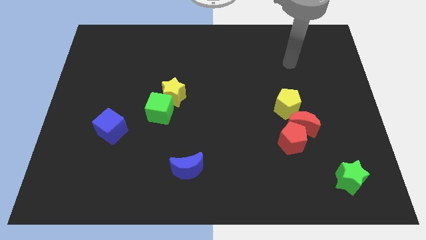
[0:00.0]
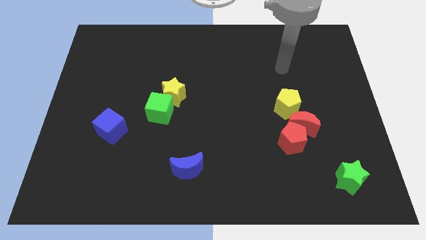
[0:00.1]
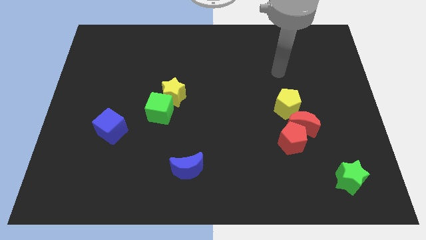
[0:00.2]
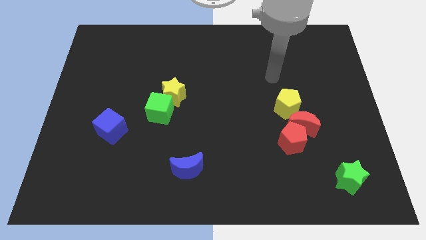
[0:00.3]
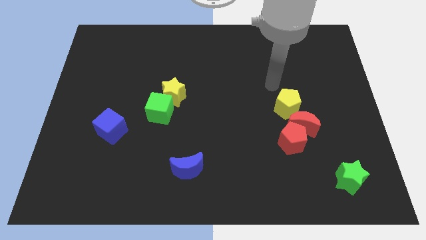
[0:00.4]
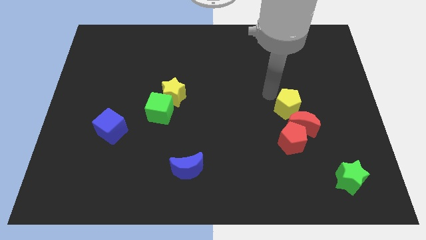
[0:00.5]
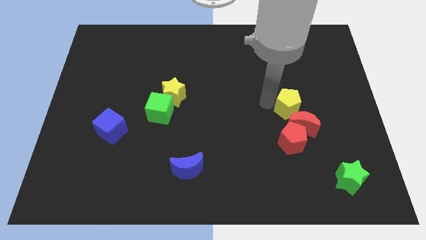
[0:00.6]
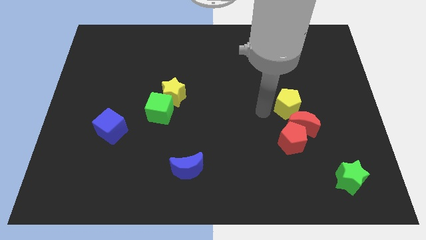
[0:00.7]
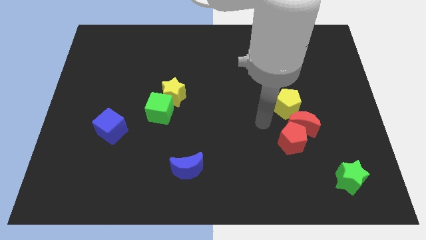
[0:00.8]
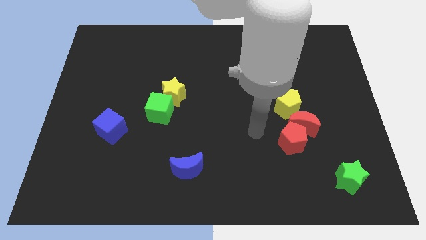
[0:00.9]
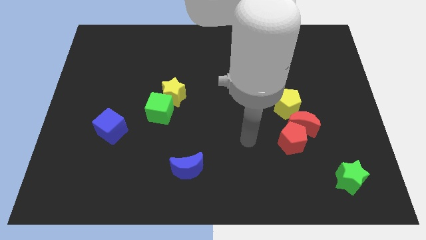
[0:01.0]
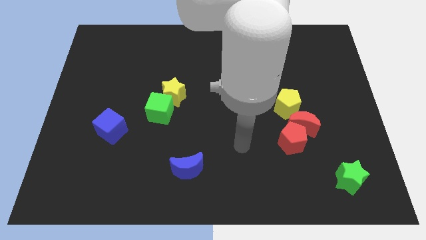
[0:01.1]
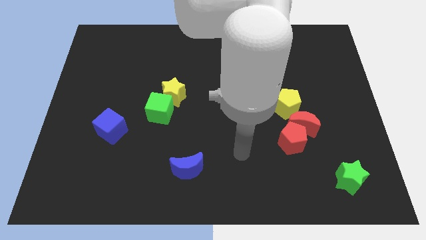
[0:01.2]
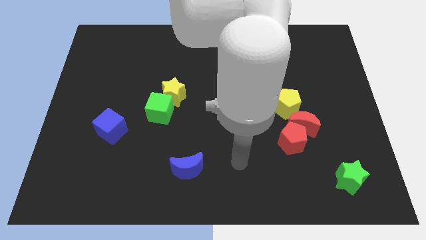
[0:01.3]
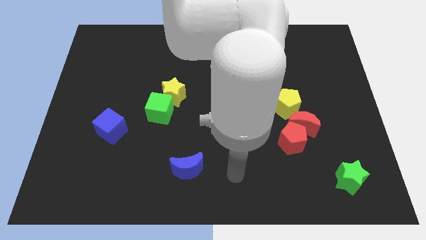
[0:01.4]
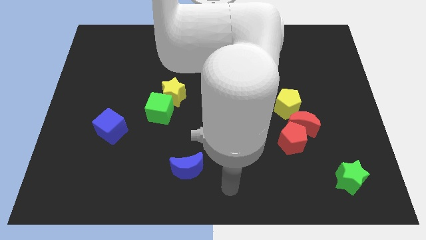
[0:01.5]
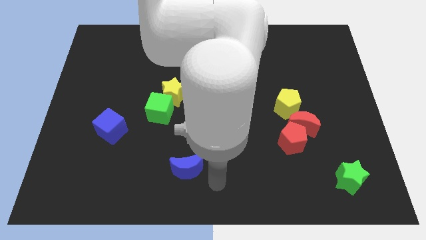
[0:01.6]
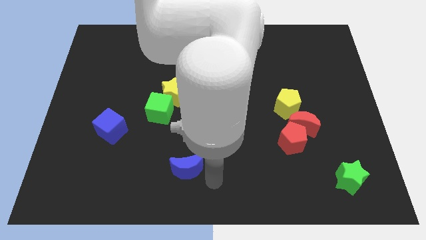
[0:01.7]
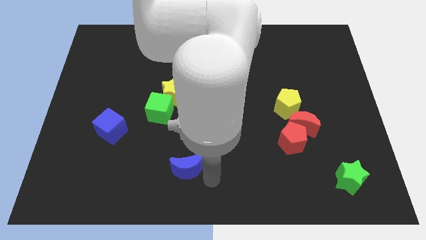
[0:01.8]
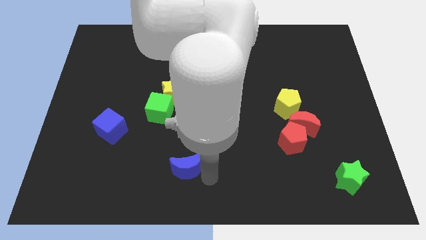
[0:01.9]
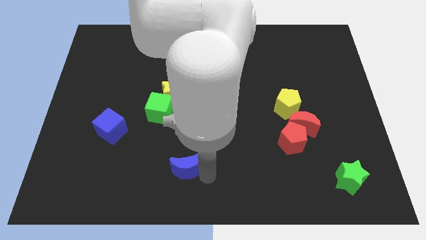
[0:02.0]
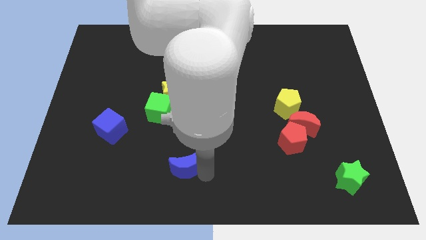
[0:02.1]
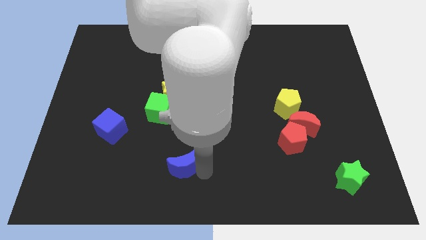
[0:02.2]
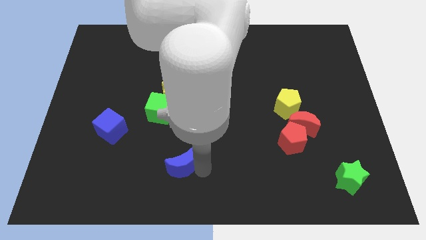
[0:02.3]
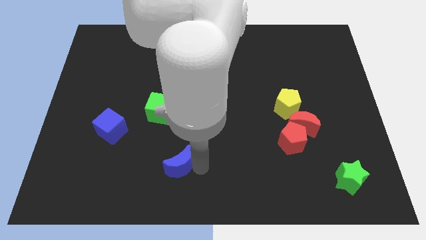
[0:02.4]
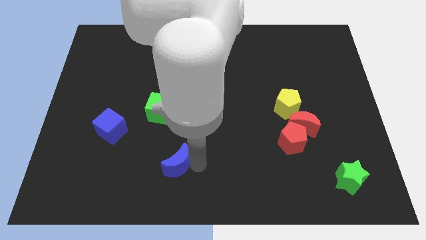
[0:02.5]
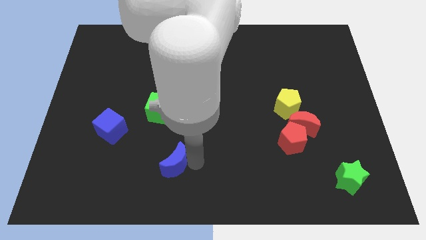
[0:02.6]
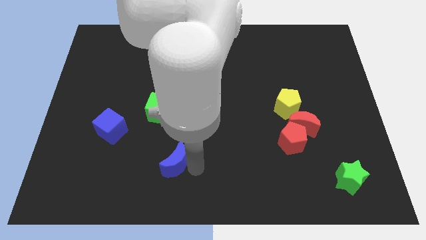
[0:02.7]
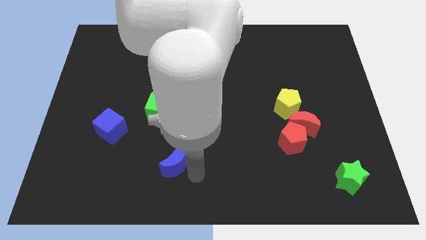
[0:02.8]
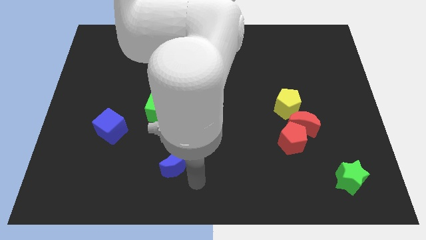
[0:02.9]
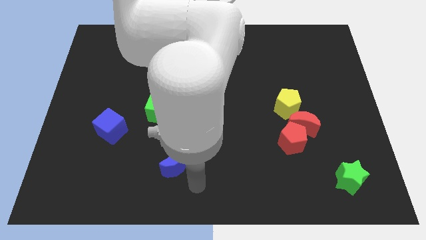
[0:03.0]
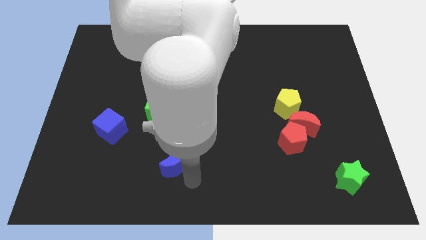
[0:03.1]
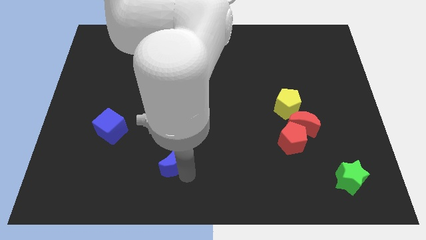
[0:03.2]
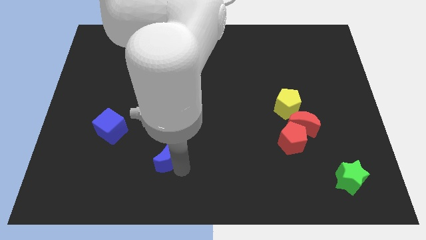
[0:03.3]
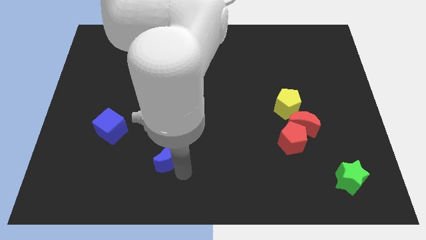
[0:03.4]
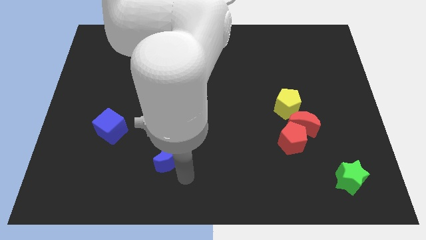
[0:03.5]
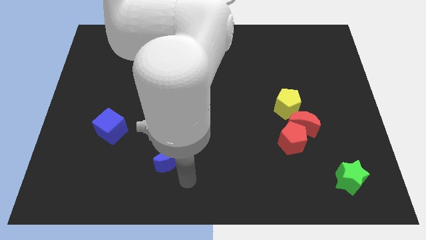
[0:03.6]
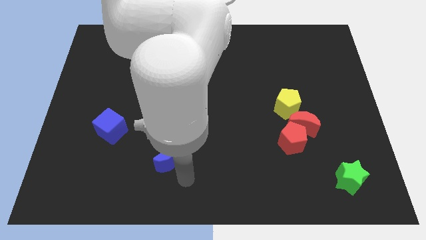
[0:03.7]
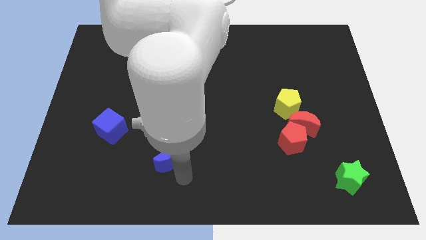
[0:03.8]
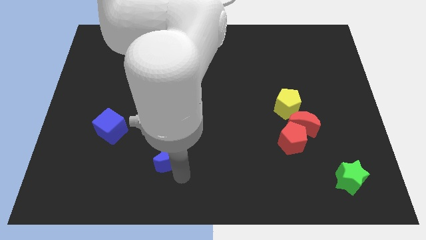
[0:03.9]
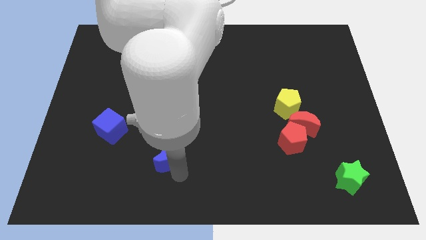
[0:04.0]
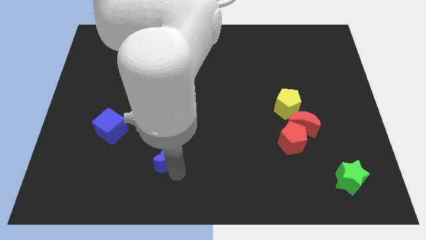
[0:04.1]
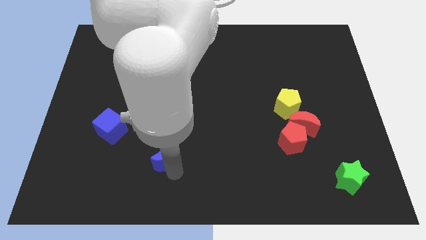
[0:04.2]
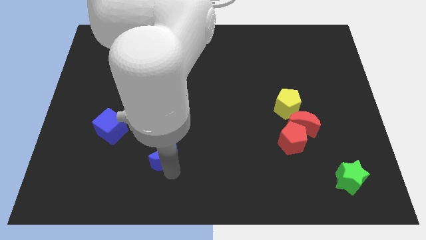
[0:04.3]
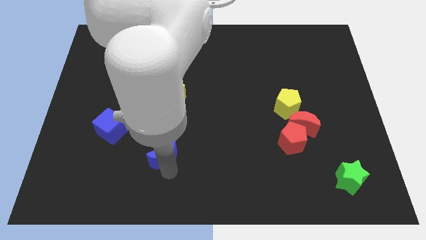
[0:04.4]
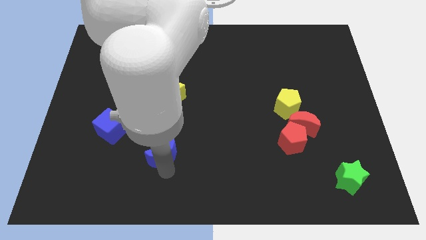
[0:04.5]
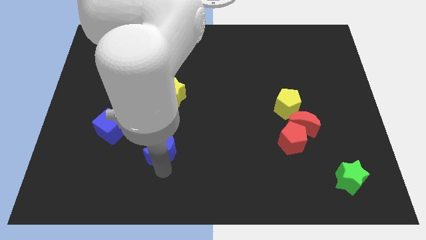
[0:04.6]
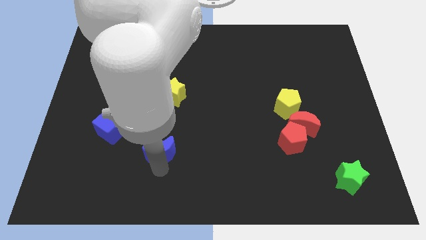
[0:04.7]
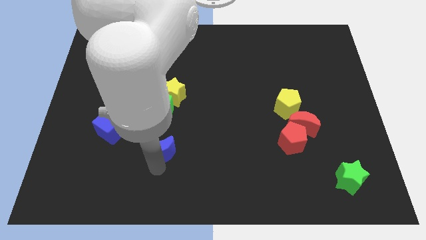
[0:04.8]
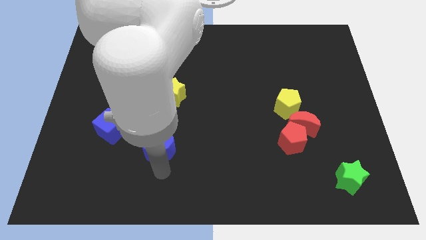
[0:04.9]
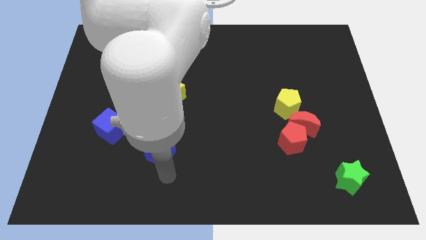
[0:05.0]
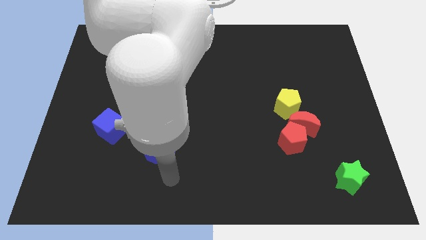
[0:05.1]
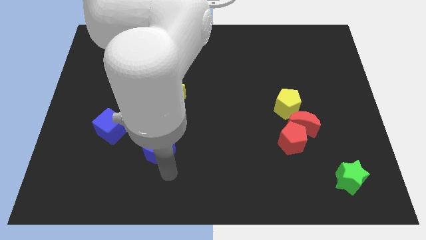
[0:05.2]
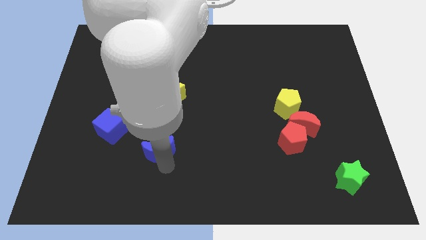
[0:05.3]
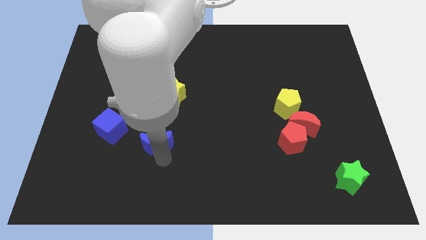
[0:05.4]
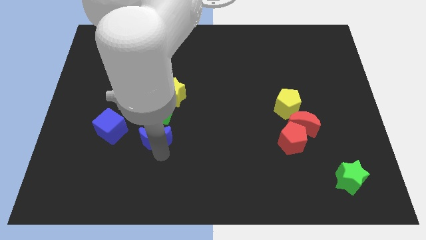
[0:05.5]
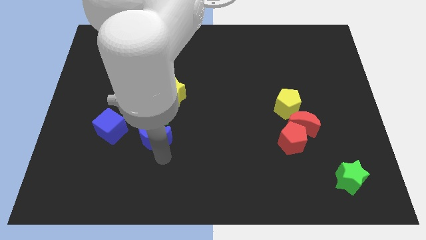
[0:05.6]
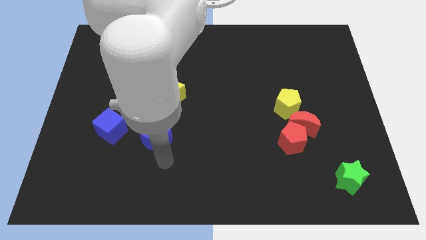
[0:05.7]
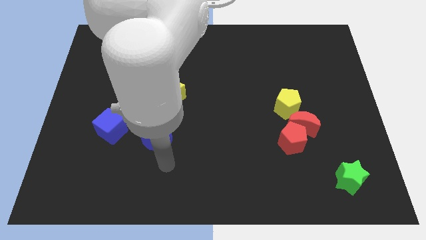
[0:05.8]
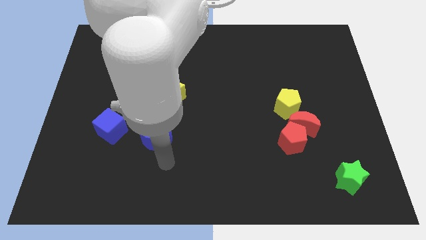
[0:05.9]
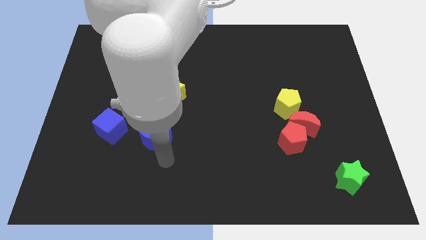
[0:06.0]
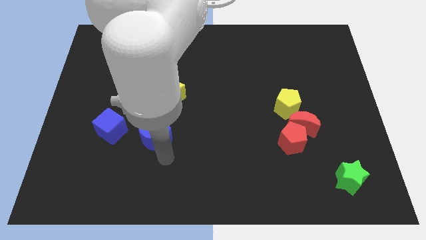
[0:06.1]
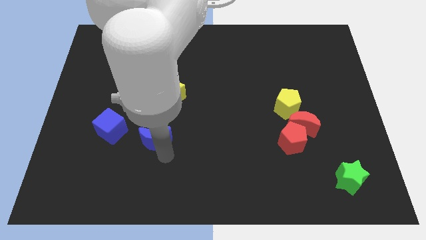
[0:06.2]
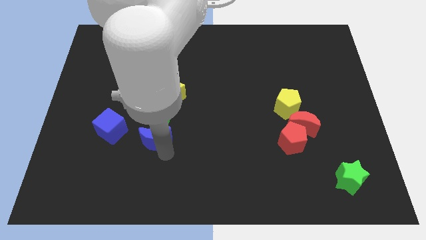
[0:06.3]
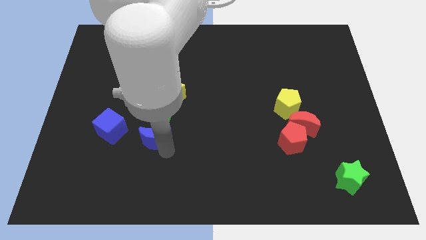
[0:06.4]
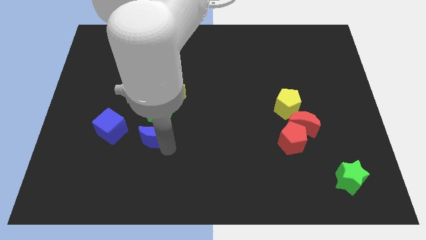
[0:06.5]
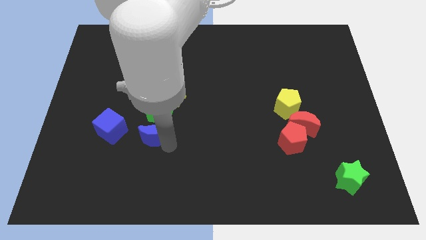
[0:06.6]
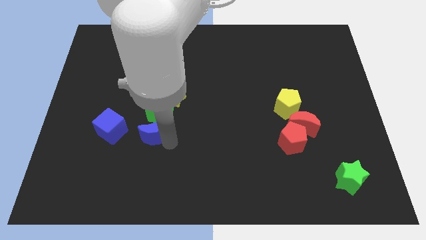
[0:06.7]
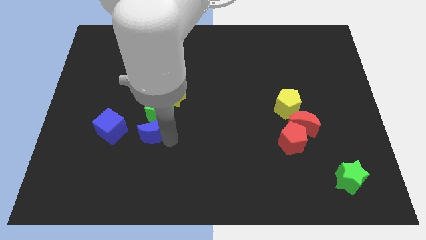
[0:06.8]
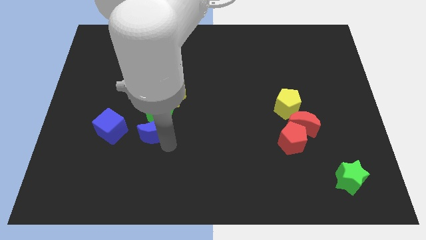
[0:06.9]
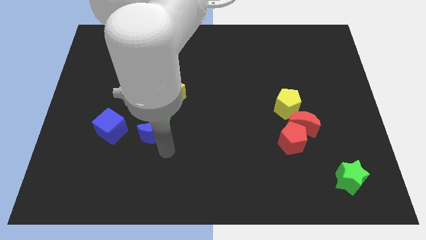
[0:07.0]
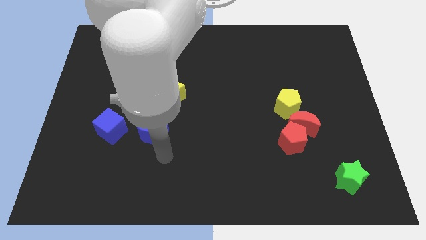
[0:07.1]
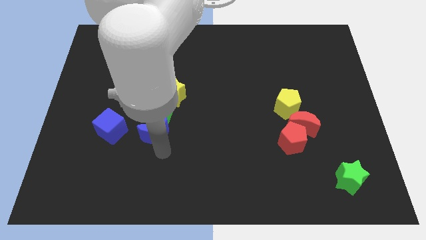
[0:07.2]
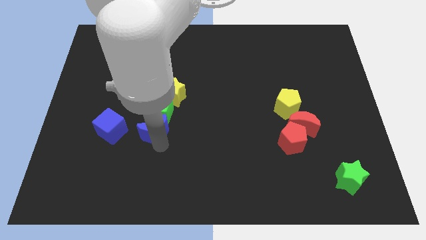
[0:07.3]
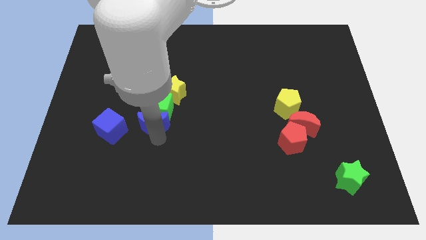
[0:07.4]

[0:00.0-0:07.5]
put the blue moon to the bottom left of the yellow star
